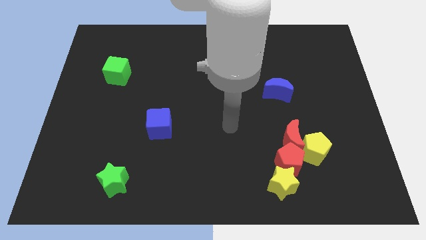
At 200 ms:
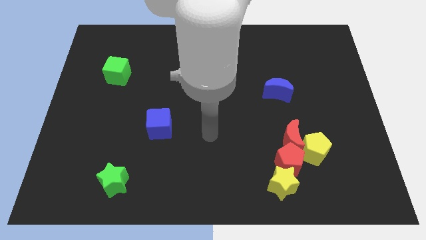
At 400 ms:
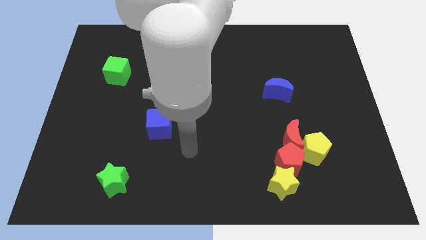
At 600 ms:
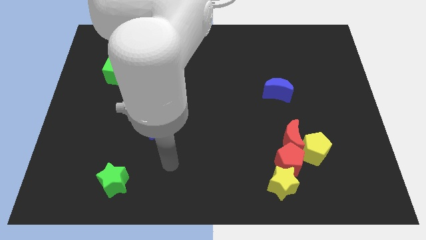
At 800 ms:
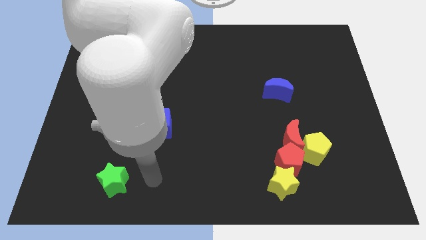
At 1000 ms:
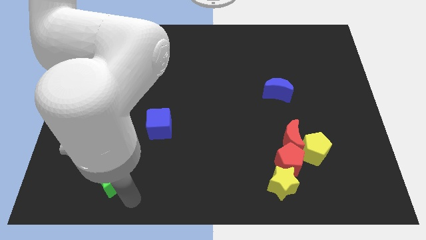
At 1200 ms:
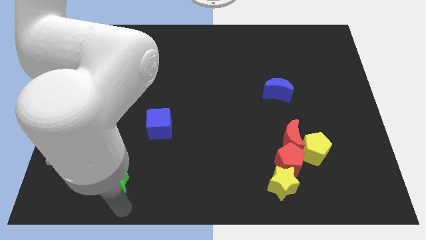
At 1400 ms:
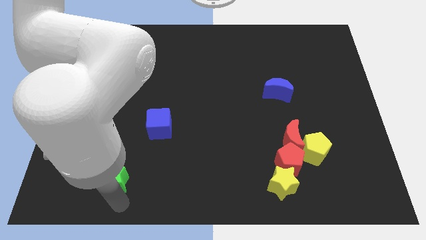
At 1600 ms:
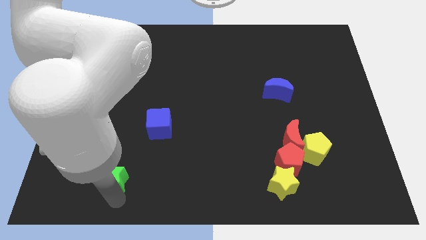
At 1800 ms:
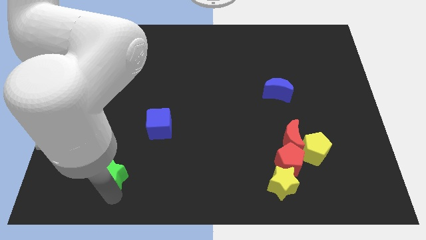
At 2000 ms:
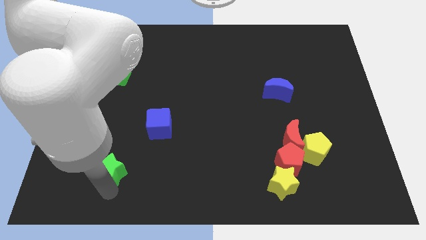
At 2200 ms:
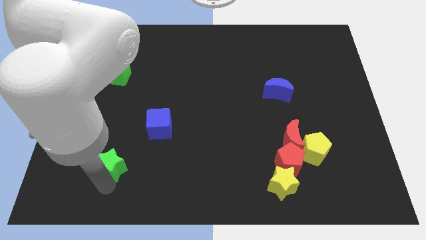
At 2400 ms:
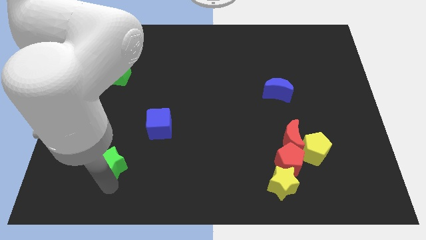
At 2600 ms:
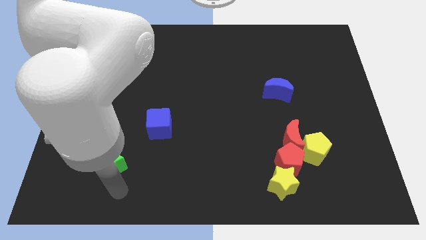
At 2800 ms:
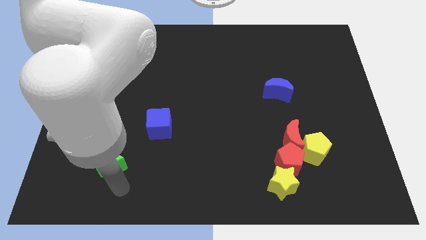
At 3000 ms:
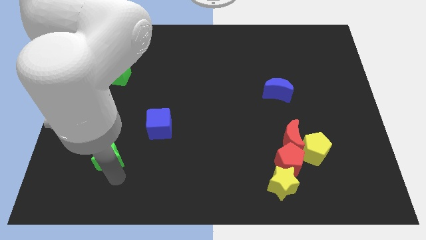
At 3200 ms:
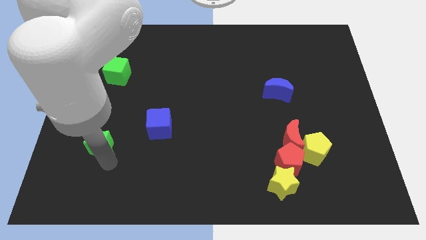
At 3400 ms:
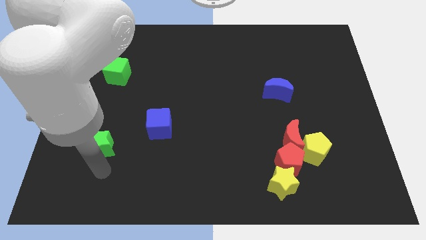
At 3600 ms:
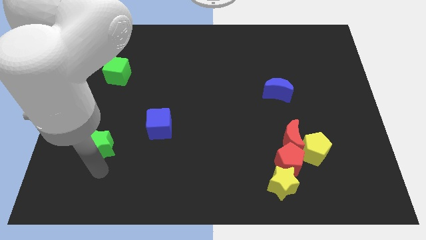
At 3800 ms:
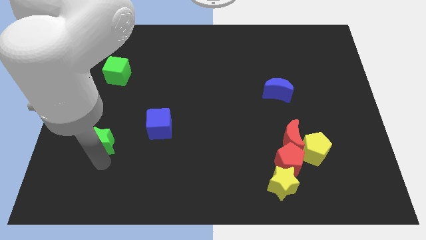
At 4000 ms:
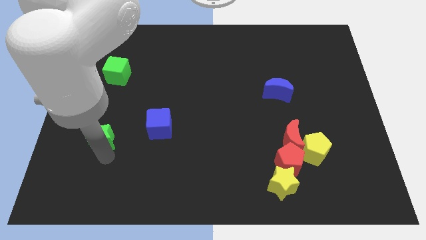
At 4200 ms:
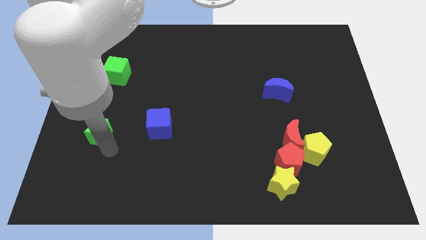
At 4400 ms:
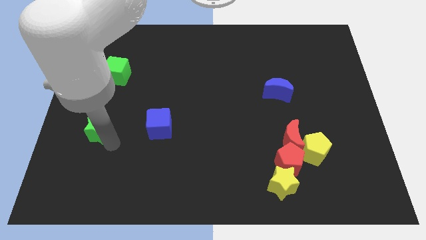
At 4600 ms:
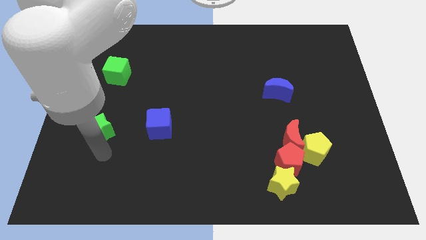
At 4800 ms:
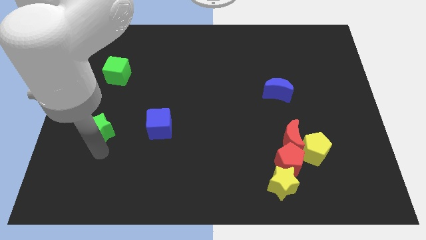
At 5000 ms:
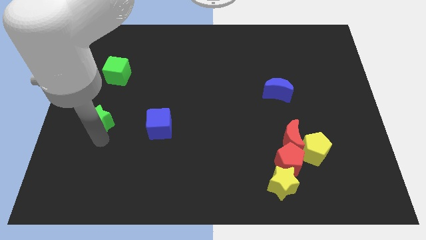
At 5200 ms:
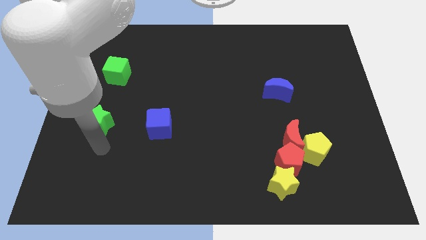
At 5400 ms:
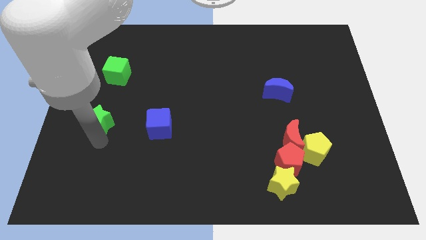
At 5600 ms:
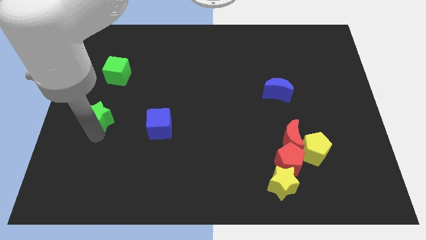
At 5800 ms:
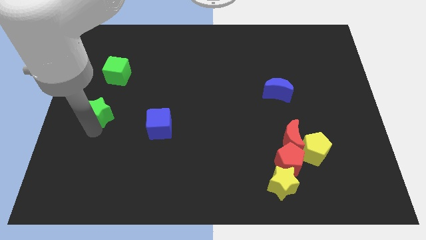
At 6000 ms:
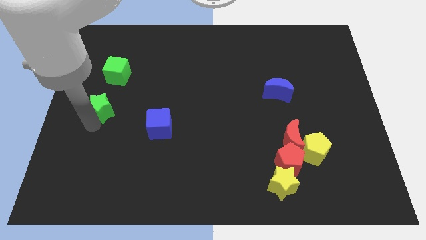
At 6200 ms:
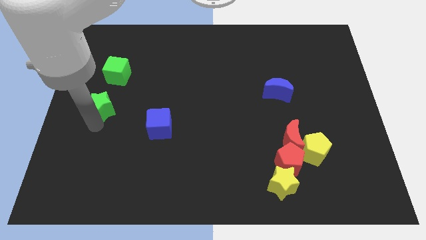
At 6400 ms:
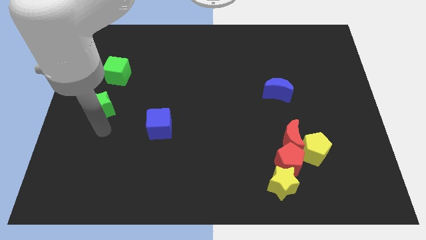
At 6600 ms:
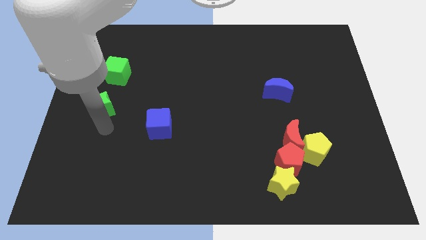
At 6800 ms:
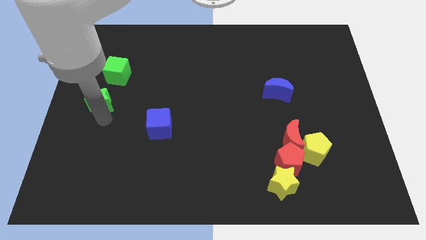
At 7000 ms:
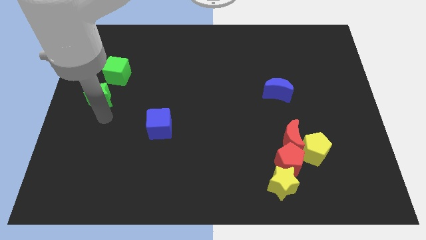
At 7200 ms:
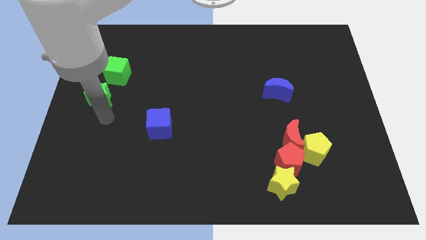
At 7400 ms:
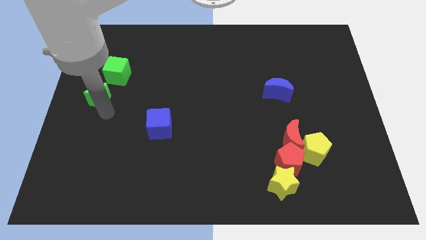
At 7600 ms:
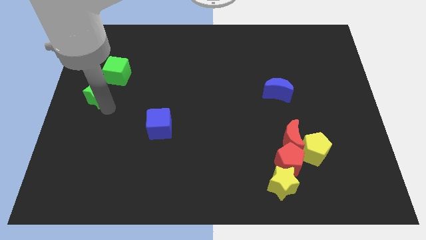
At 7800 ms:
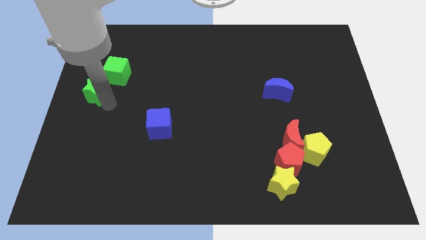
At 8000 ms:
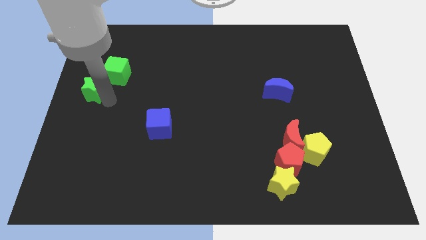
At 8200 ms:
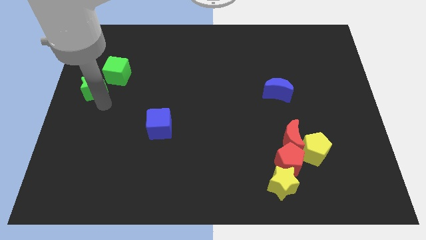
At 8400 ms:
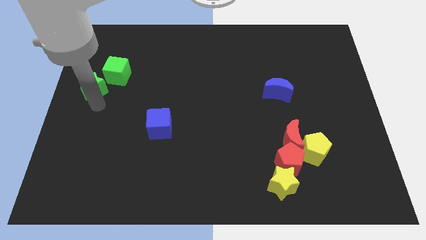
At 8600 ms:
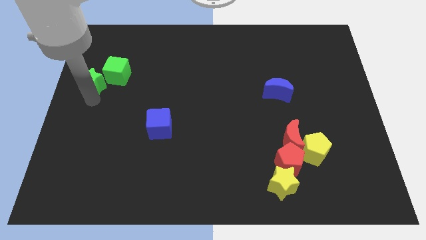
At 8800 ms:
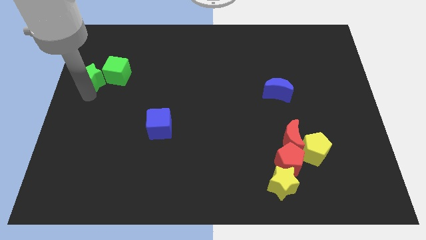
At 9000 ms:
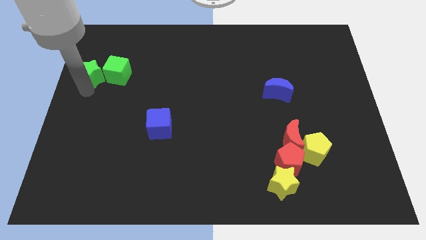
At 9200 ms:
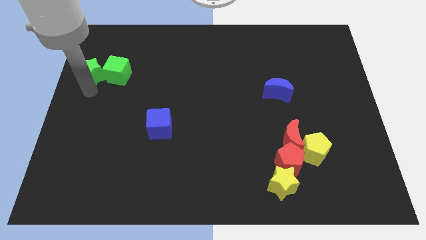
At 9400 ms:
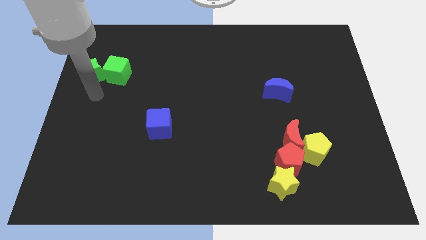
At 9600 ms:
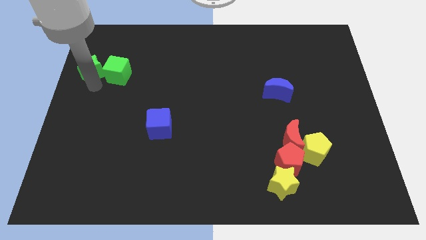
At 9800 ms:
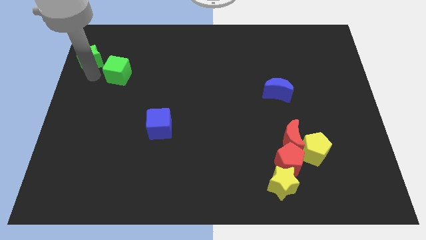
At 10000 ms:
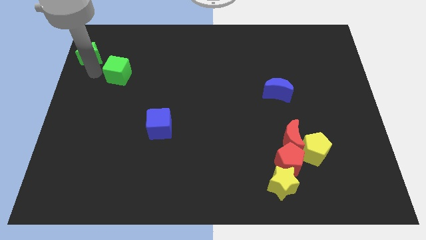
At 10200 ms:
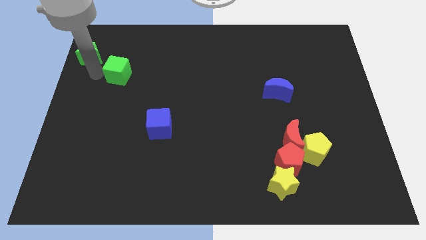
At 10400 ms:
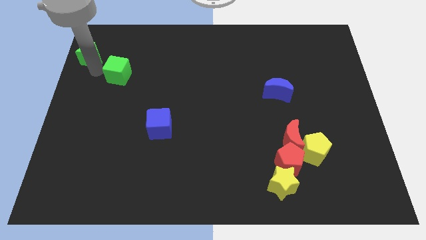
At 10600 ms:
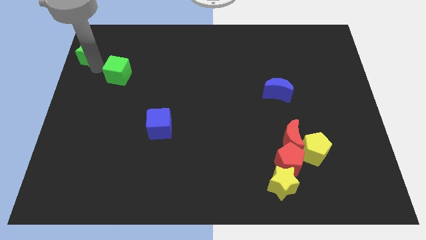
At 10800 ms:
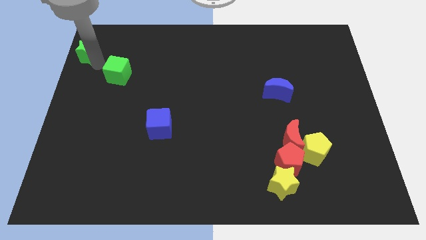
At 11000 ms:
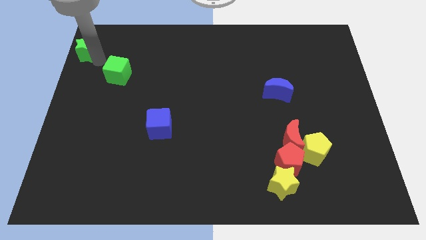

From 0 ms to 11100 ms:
put the green star to the top left of the board

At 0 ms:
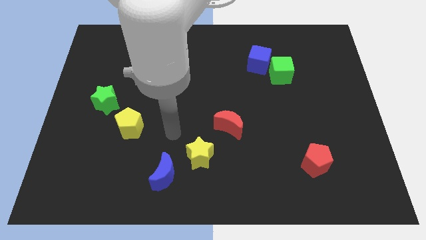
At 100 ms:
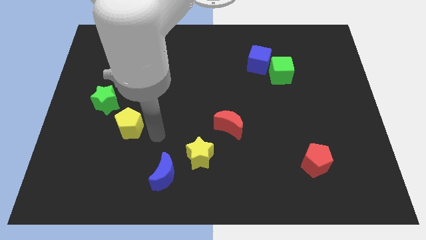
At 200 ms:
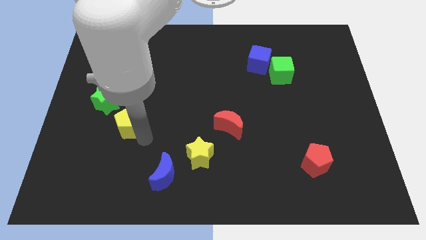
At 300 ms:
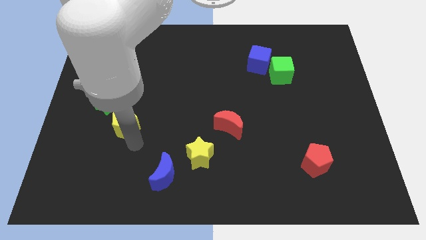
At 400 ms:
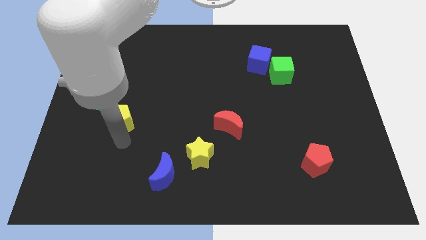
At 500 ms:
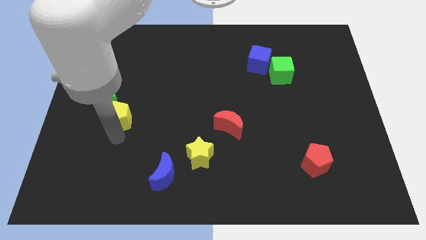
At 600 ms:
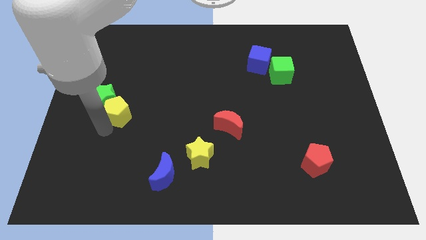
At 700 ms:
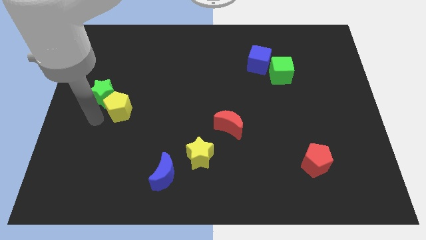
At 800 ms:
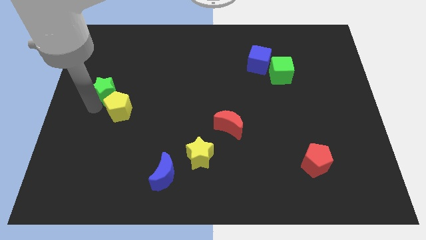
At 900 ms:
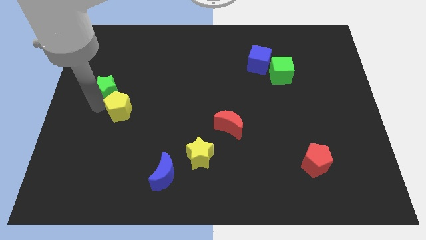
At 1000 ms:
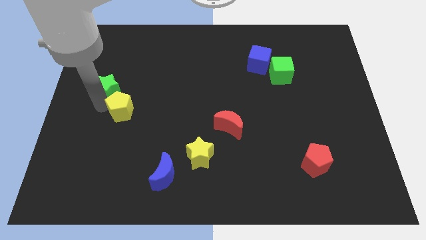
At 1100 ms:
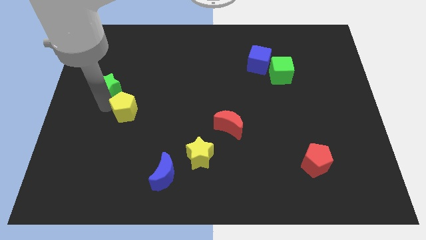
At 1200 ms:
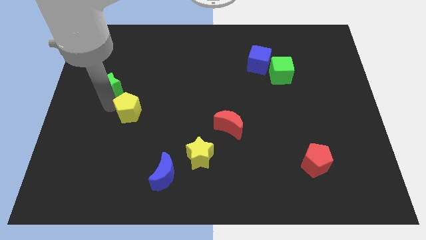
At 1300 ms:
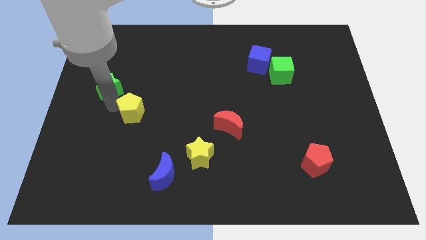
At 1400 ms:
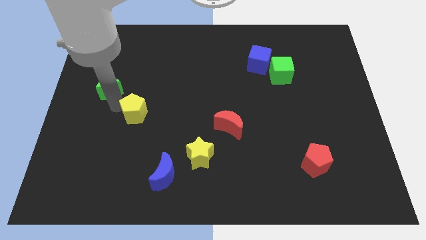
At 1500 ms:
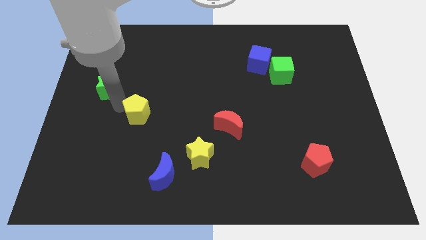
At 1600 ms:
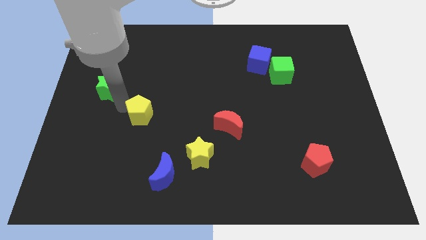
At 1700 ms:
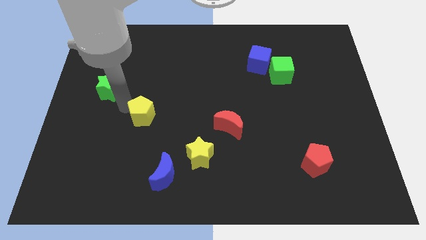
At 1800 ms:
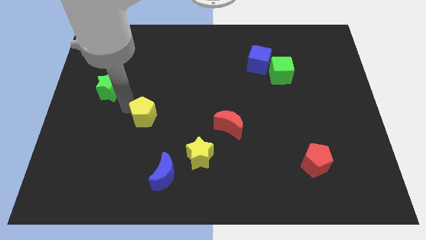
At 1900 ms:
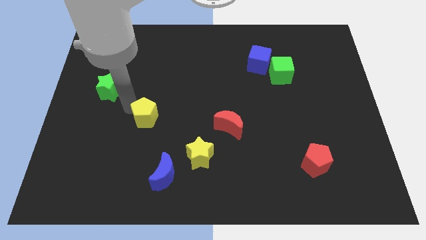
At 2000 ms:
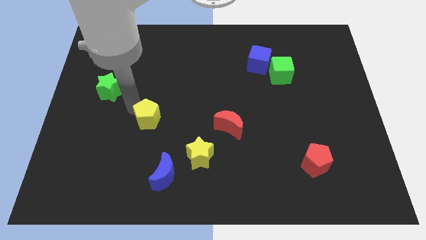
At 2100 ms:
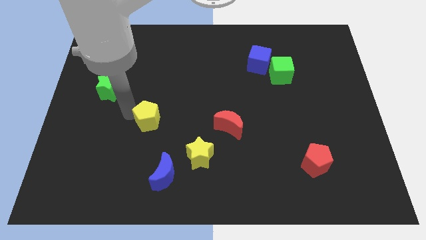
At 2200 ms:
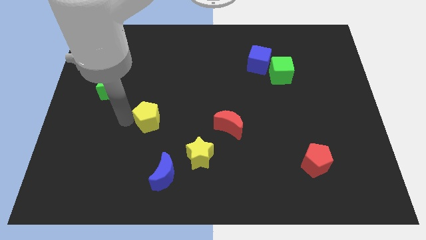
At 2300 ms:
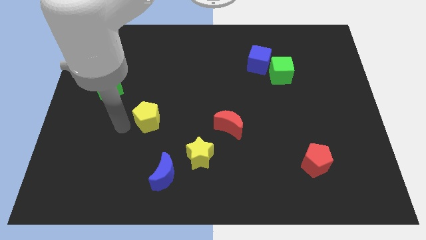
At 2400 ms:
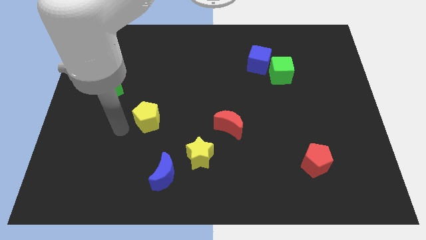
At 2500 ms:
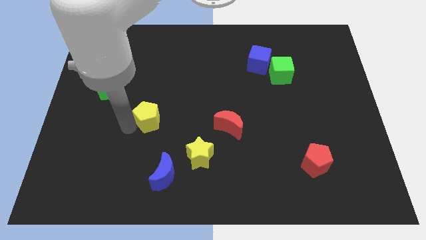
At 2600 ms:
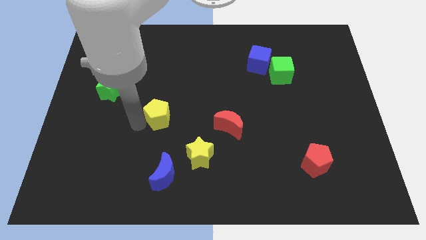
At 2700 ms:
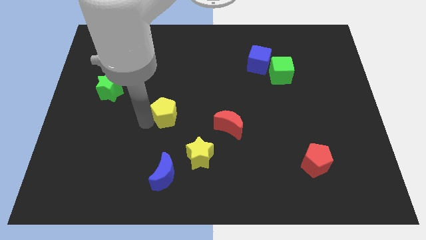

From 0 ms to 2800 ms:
push the yellow pentagon to the middle of the board
